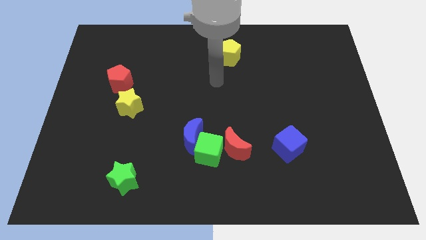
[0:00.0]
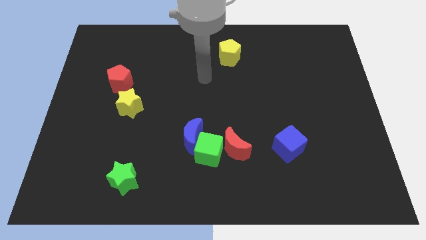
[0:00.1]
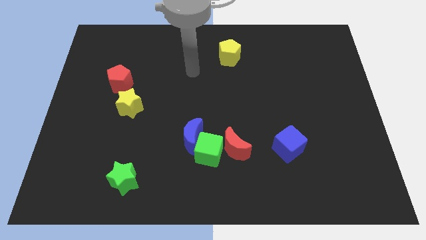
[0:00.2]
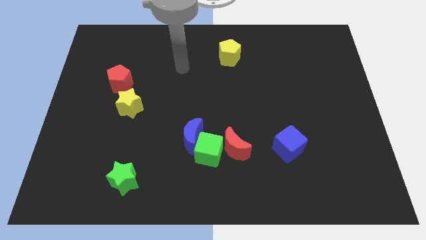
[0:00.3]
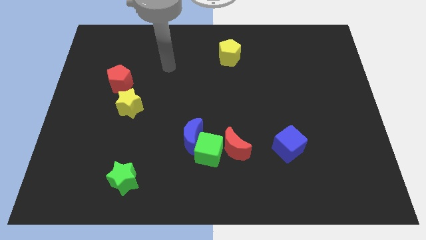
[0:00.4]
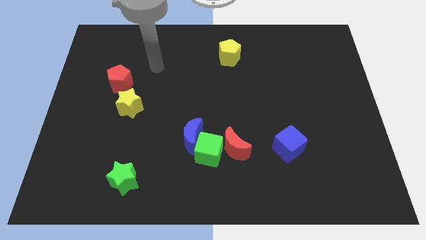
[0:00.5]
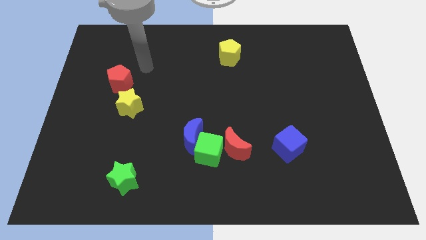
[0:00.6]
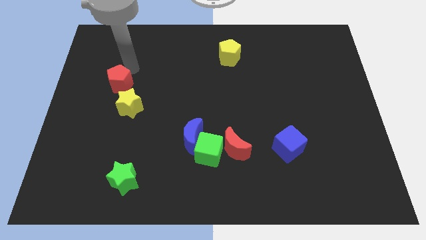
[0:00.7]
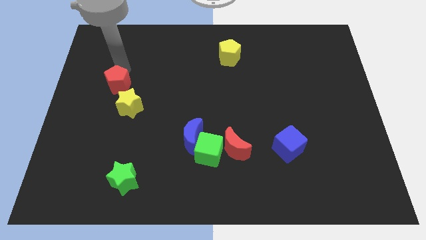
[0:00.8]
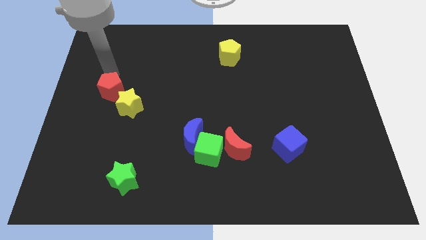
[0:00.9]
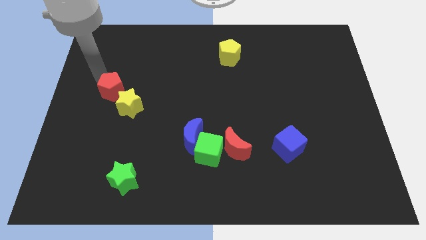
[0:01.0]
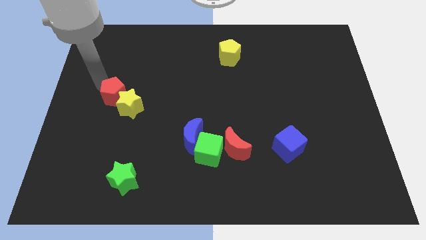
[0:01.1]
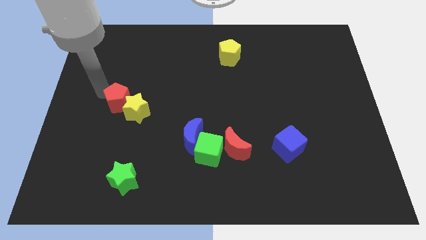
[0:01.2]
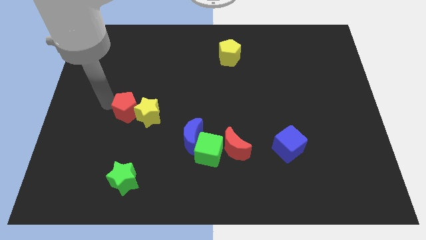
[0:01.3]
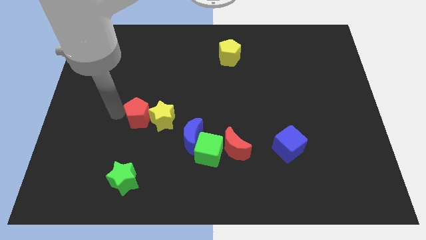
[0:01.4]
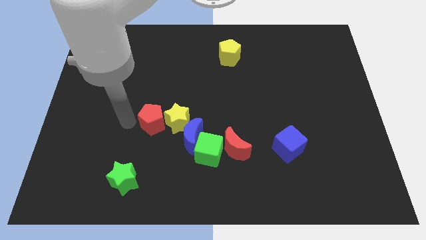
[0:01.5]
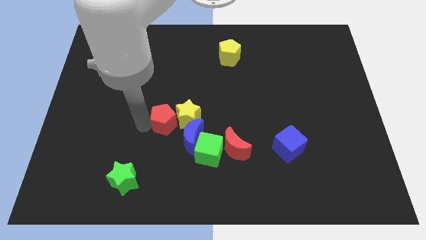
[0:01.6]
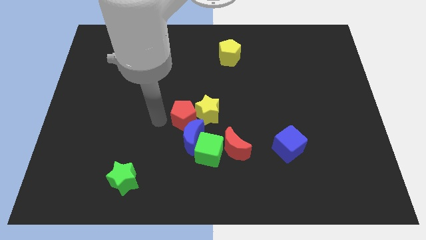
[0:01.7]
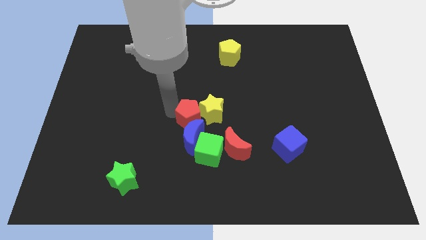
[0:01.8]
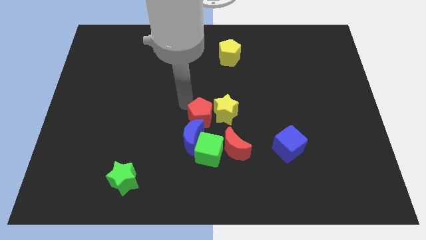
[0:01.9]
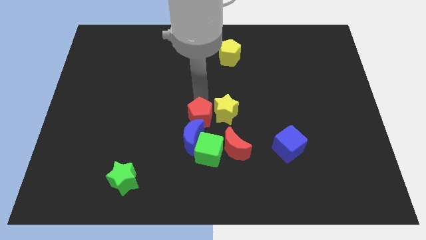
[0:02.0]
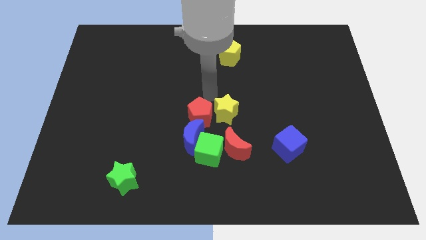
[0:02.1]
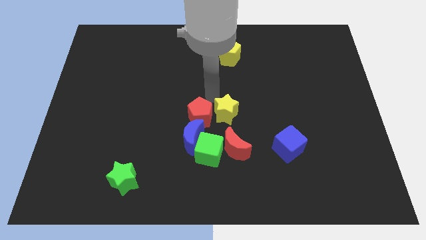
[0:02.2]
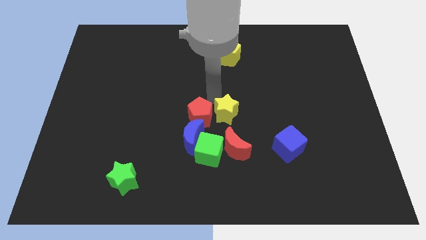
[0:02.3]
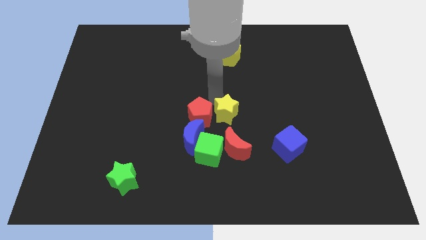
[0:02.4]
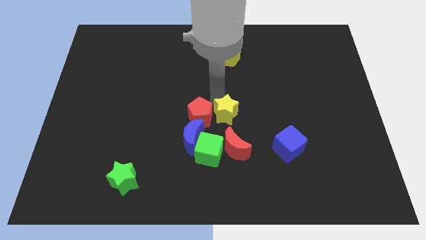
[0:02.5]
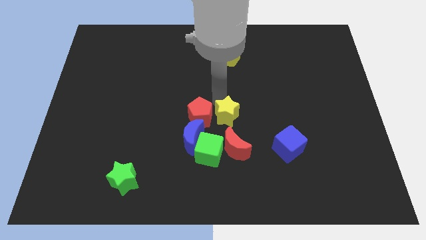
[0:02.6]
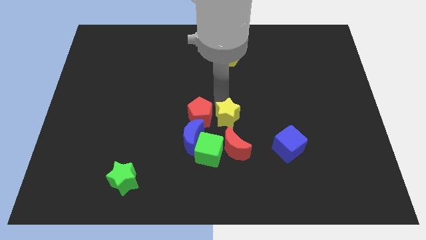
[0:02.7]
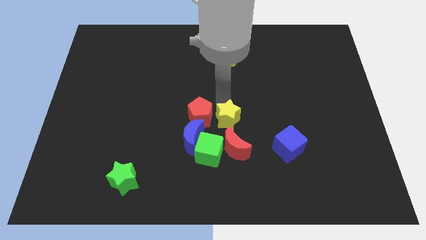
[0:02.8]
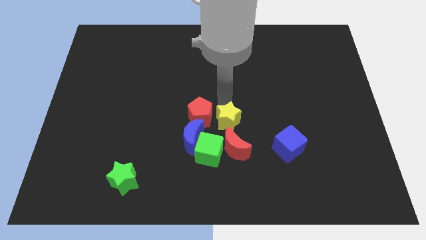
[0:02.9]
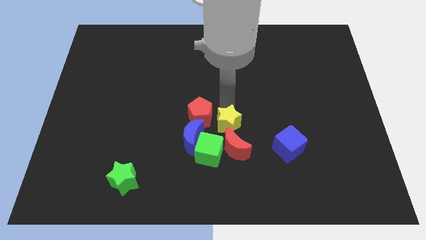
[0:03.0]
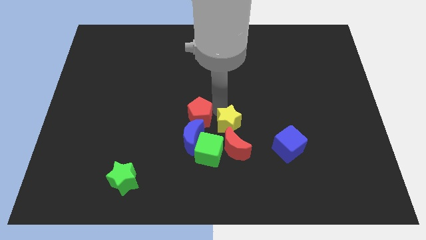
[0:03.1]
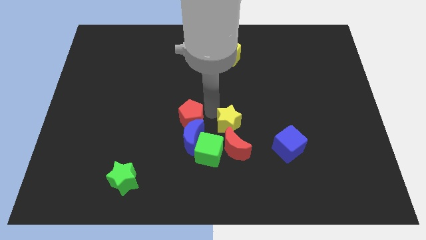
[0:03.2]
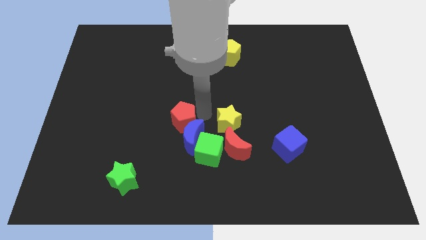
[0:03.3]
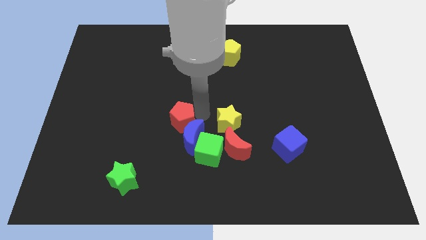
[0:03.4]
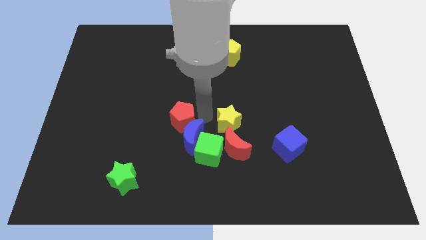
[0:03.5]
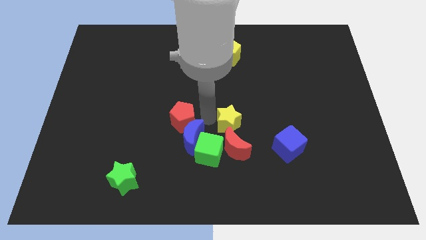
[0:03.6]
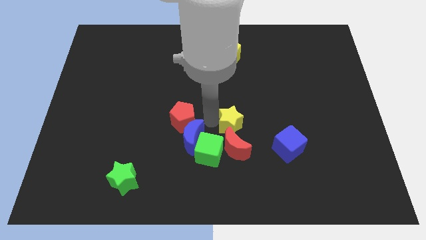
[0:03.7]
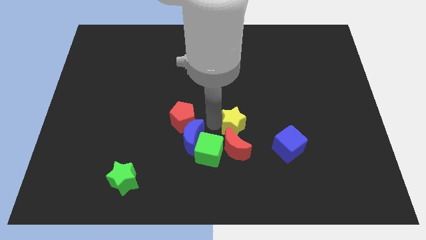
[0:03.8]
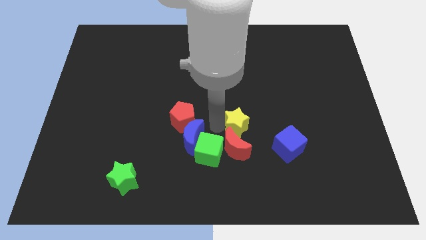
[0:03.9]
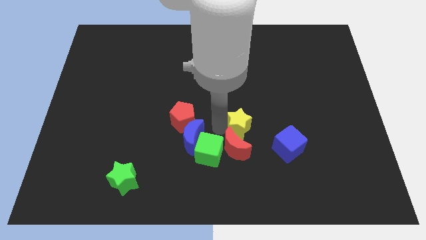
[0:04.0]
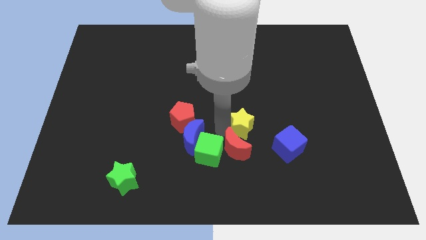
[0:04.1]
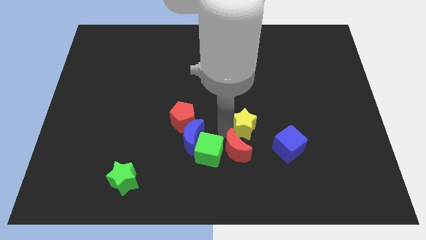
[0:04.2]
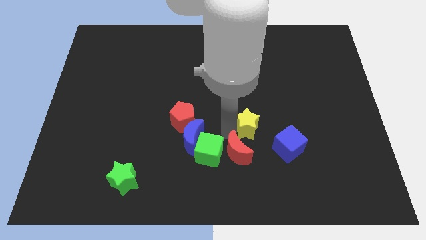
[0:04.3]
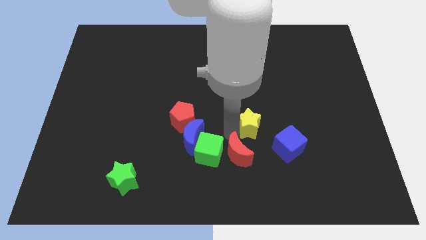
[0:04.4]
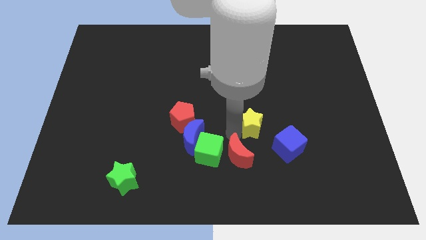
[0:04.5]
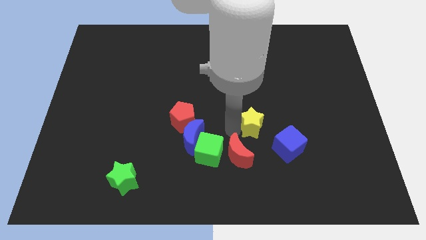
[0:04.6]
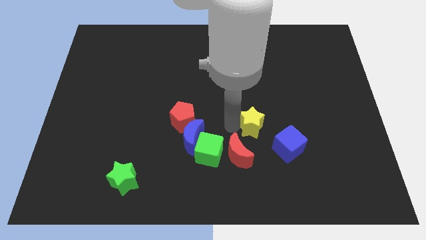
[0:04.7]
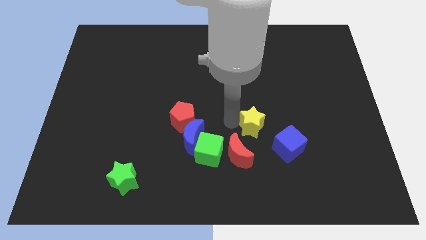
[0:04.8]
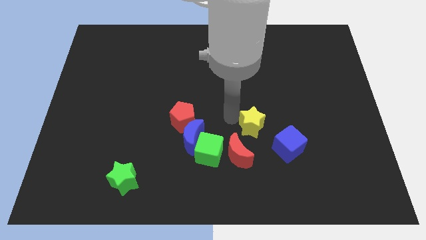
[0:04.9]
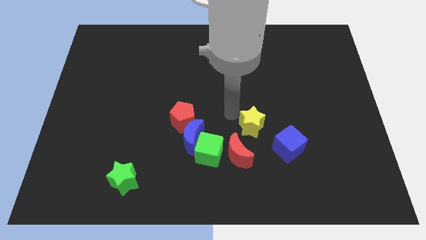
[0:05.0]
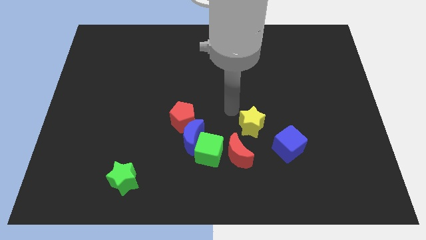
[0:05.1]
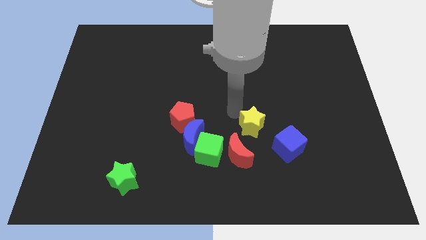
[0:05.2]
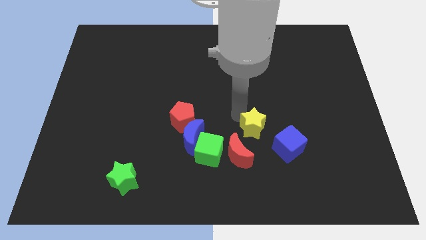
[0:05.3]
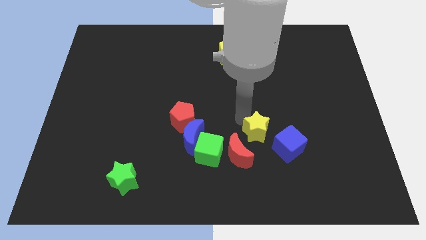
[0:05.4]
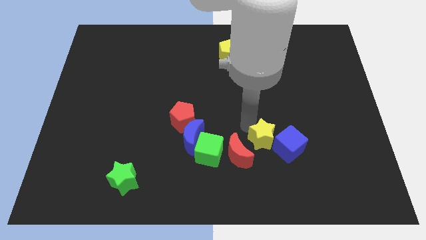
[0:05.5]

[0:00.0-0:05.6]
move the yellow star to the blue cube

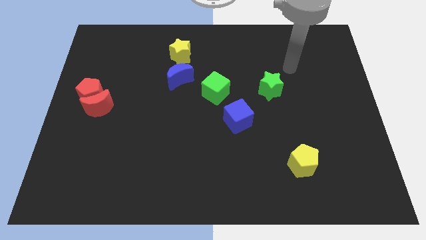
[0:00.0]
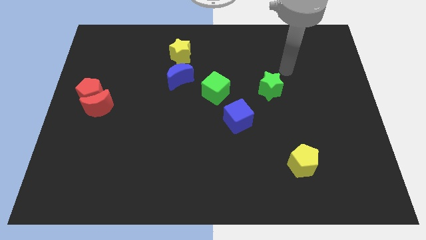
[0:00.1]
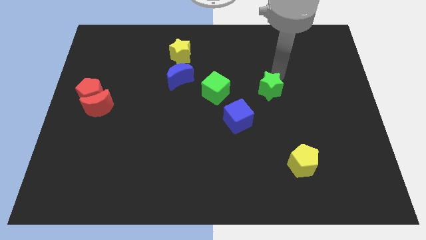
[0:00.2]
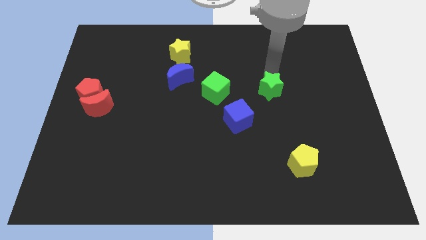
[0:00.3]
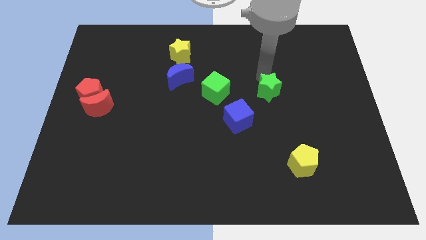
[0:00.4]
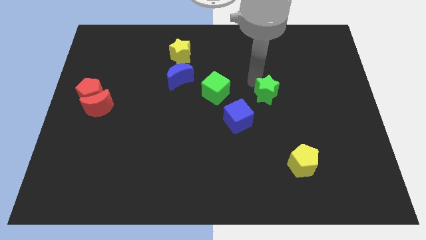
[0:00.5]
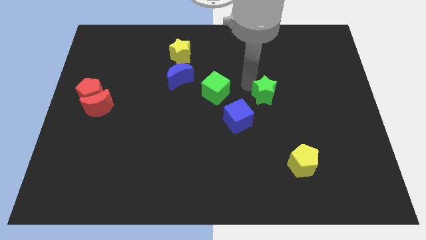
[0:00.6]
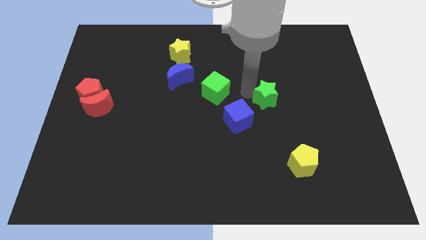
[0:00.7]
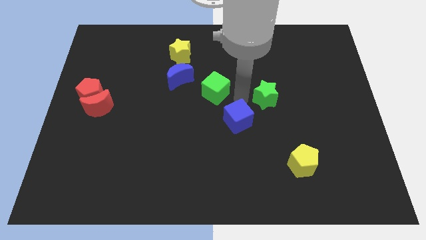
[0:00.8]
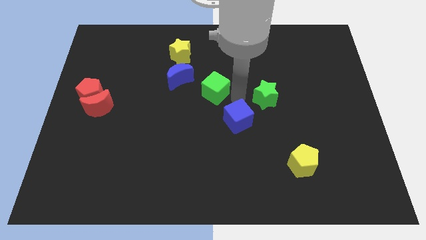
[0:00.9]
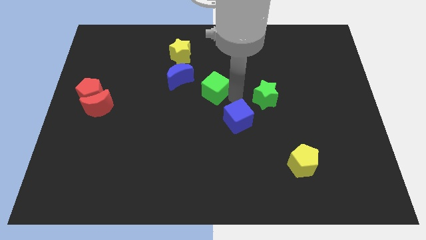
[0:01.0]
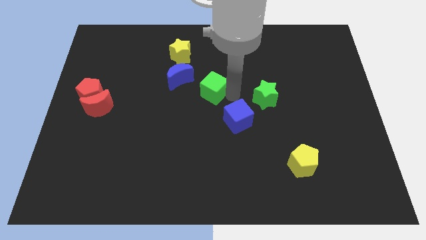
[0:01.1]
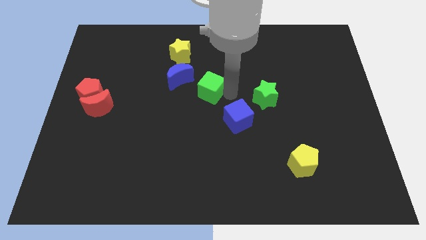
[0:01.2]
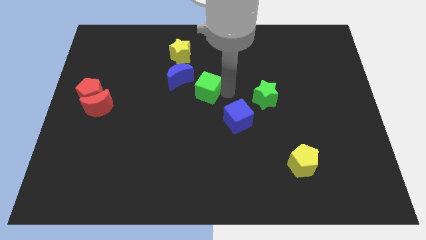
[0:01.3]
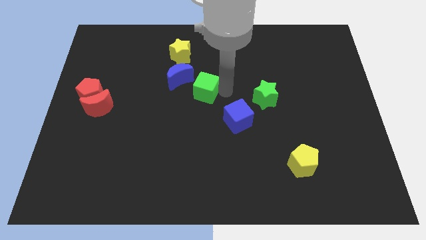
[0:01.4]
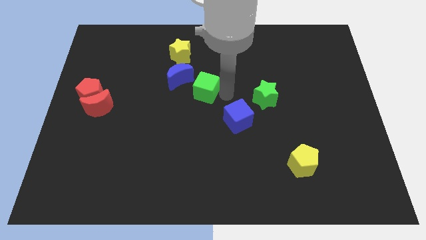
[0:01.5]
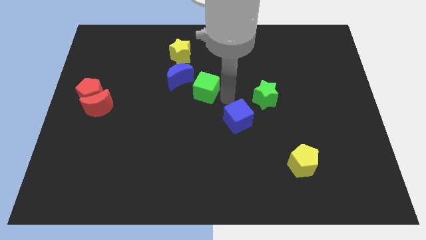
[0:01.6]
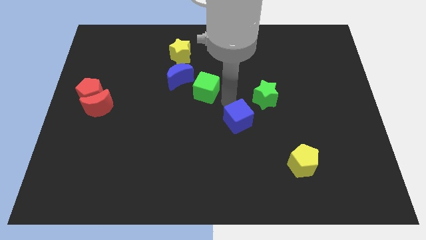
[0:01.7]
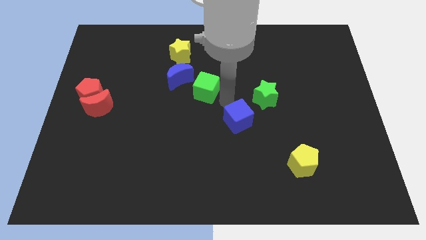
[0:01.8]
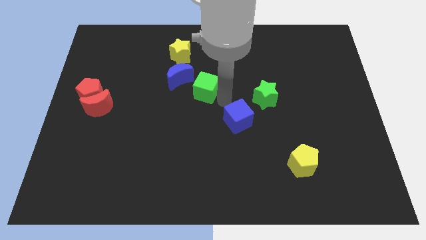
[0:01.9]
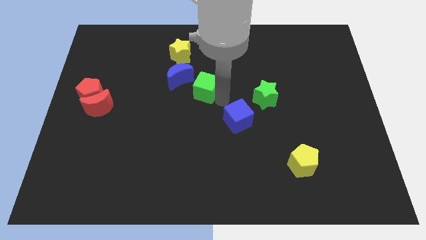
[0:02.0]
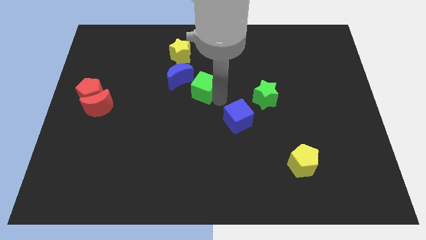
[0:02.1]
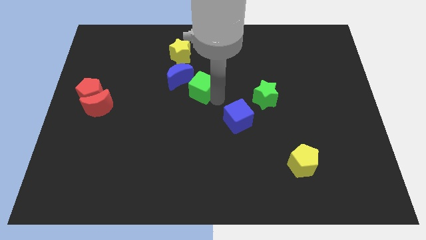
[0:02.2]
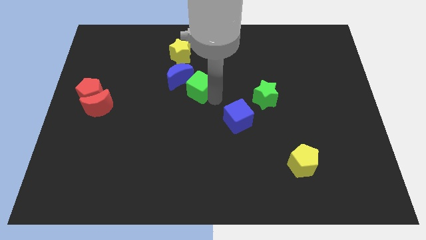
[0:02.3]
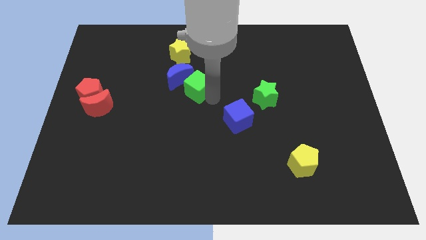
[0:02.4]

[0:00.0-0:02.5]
move the green cube towards the blue moon
